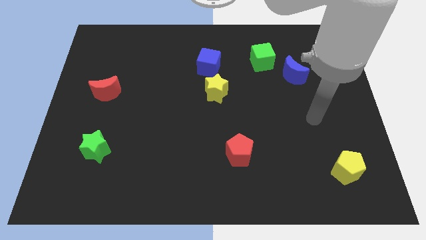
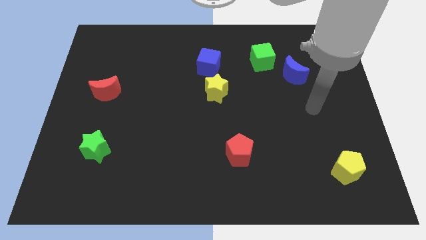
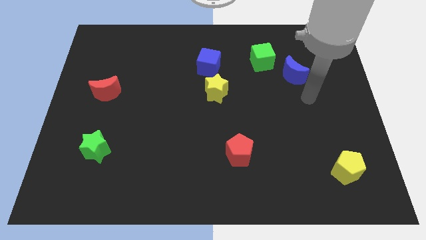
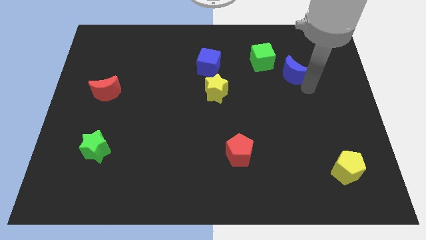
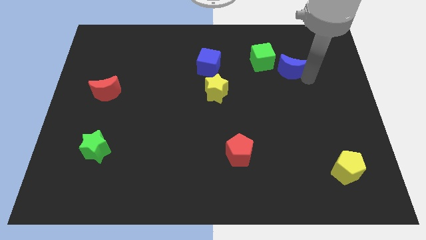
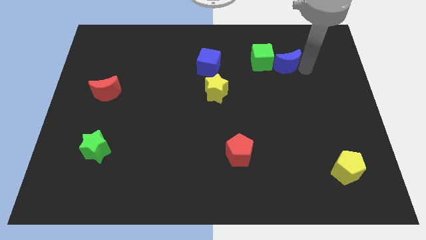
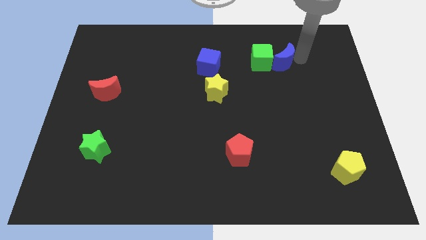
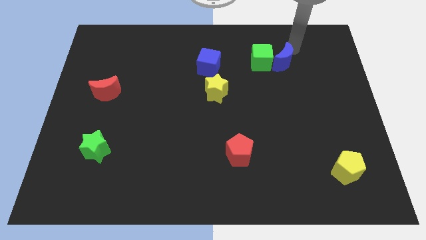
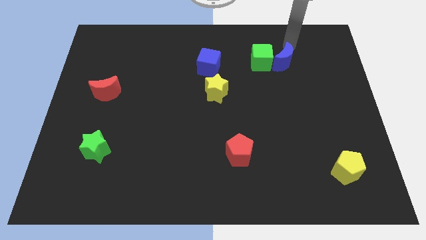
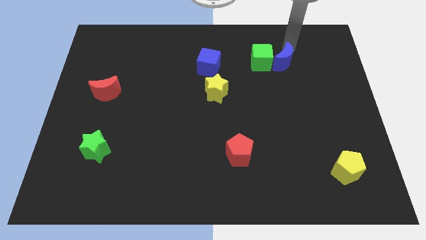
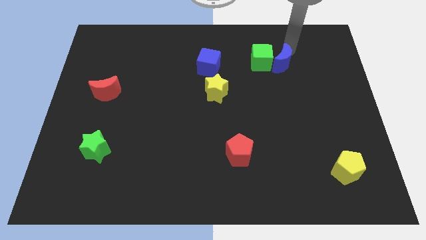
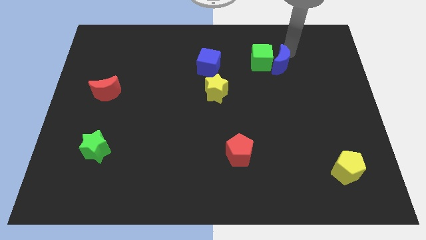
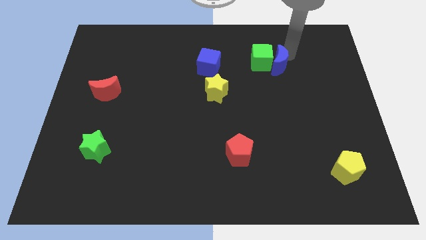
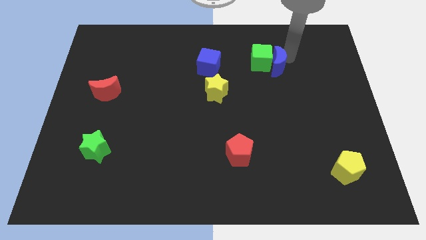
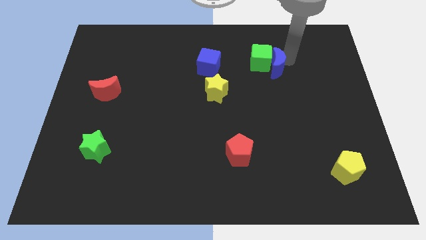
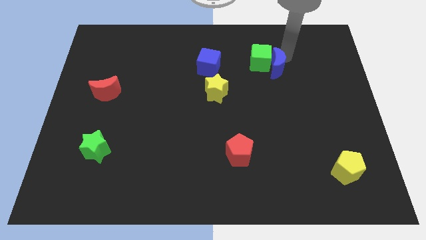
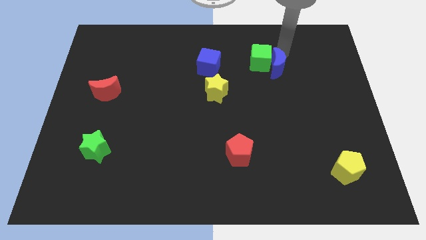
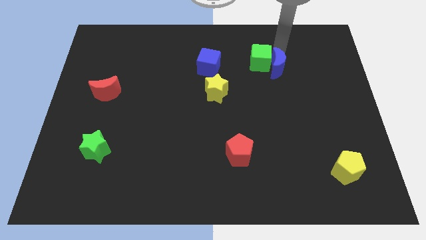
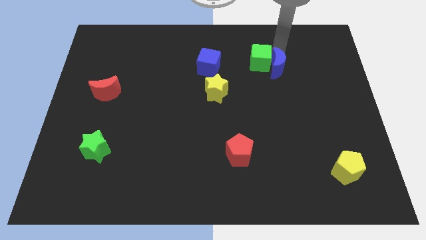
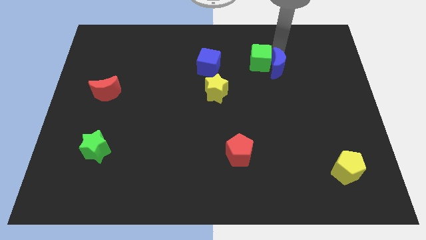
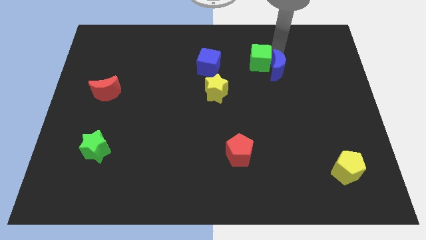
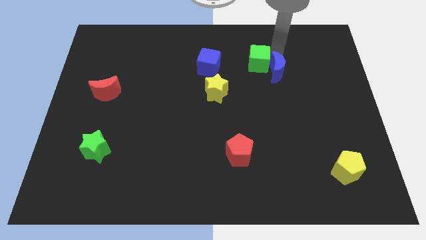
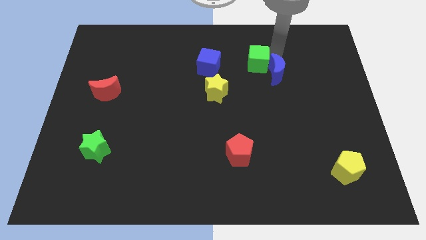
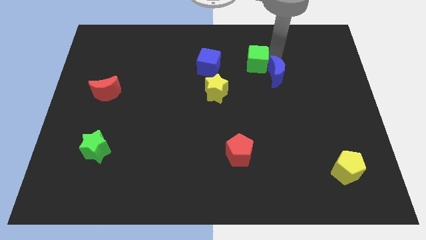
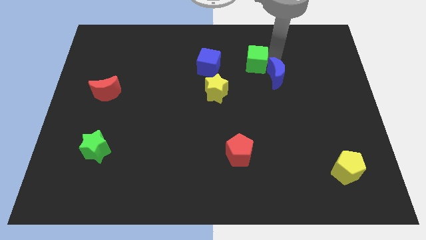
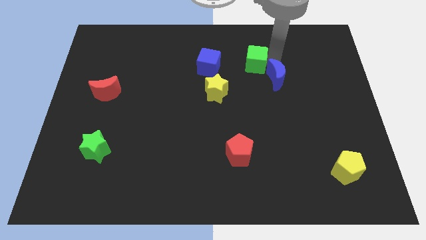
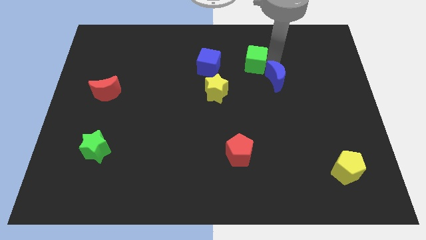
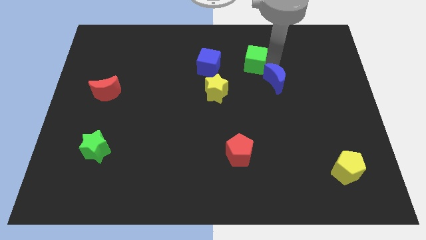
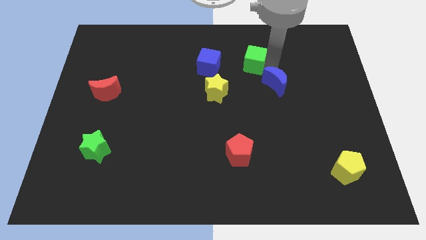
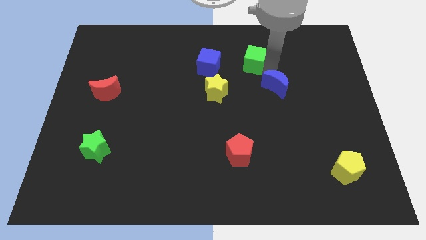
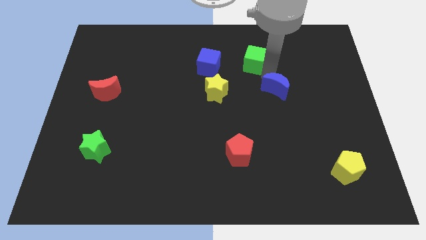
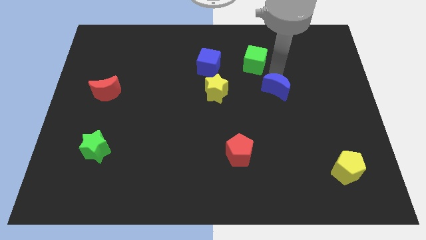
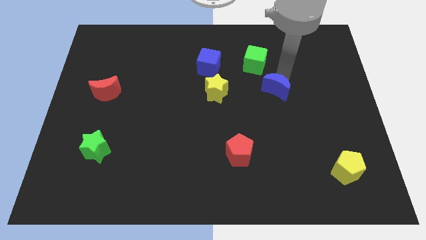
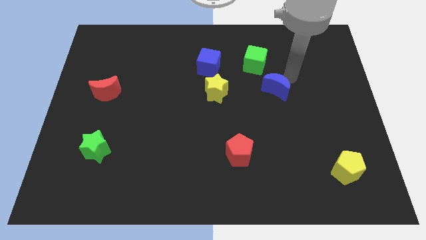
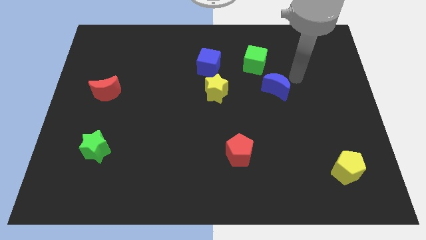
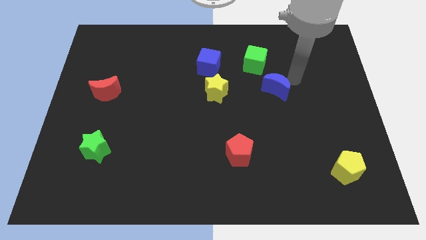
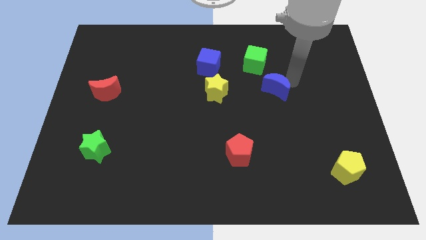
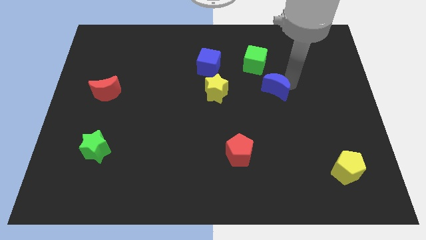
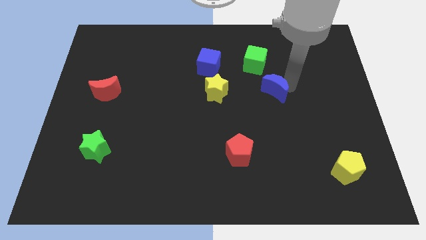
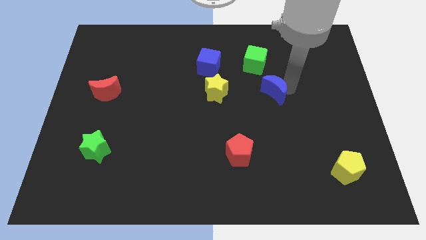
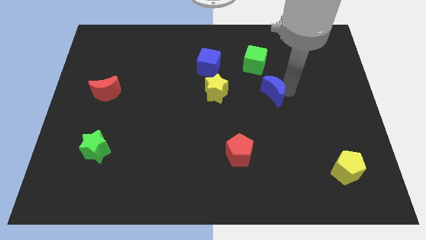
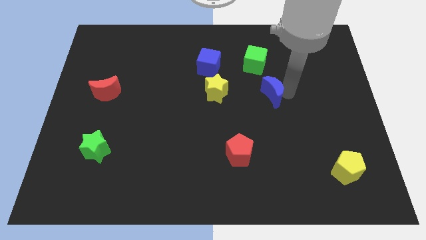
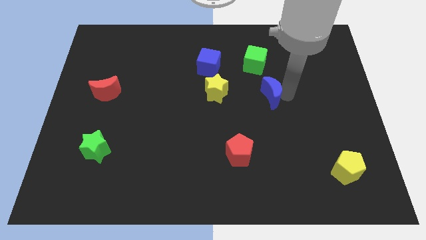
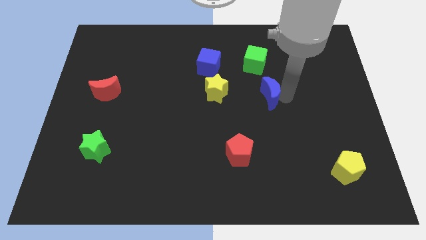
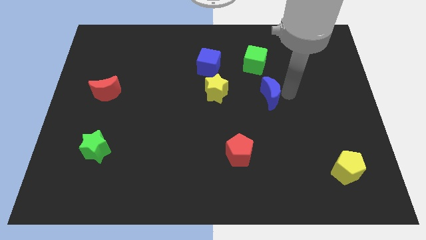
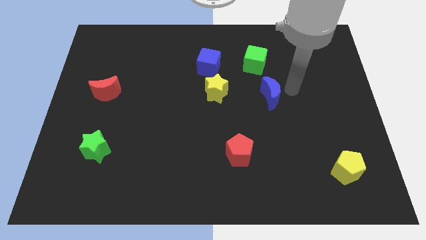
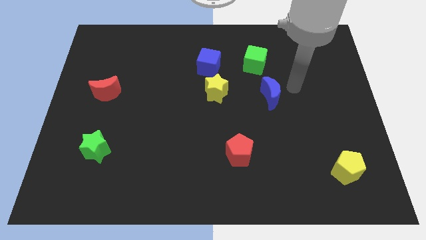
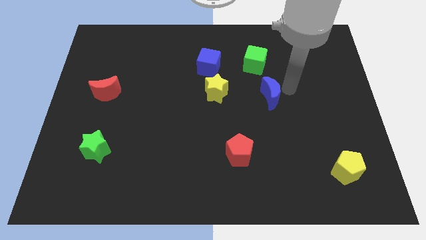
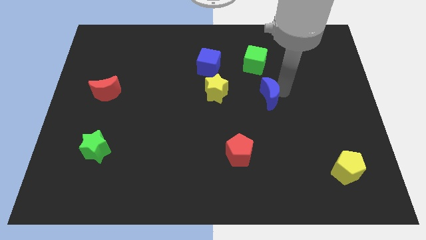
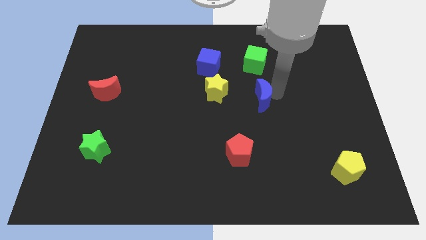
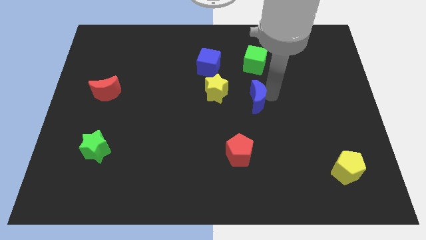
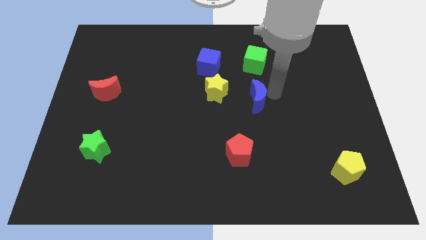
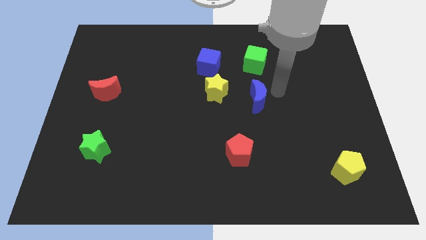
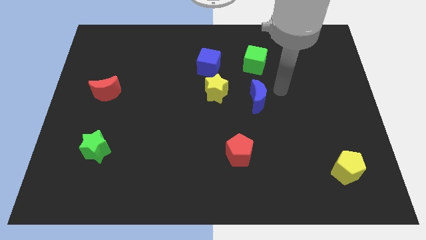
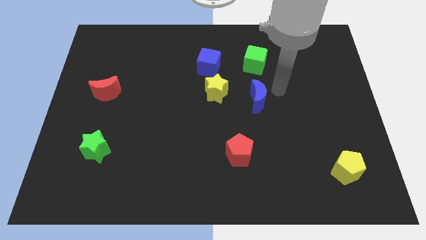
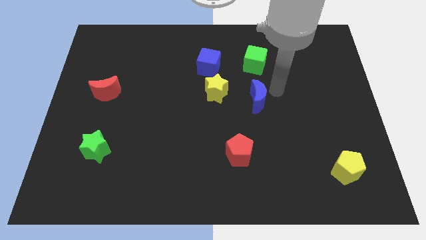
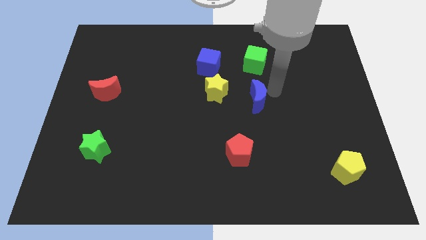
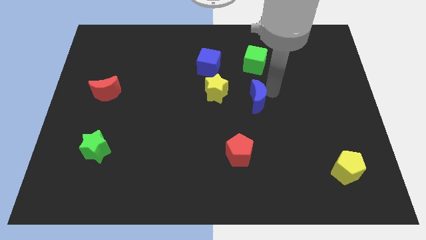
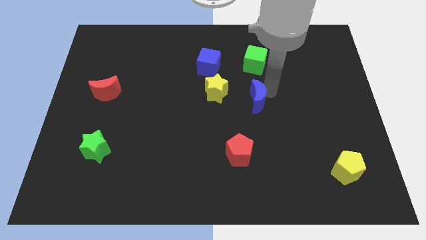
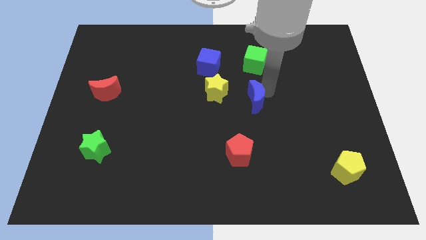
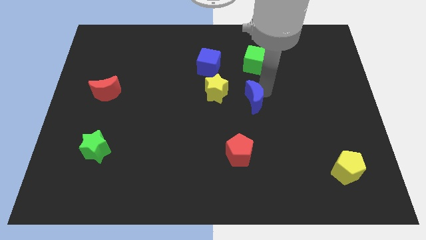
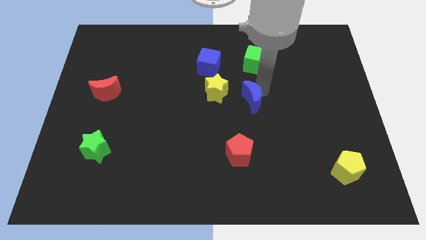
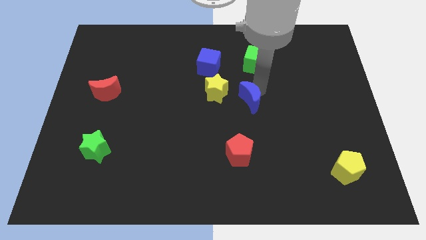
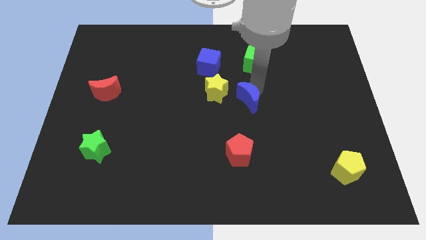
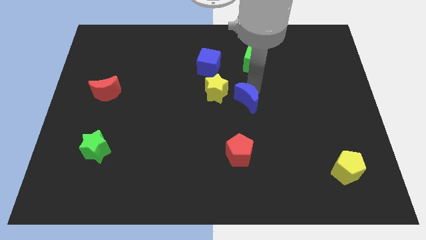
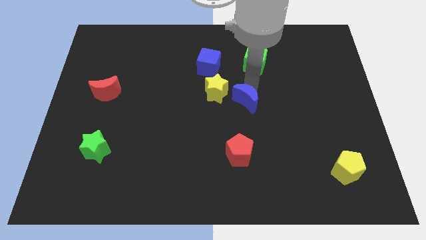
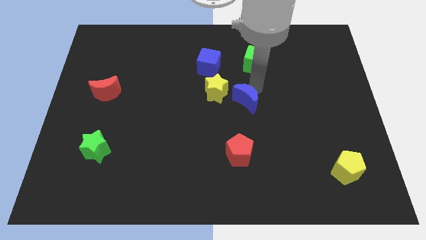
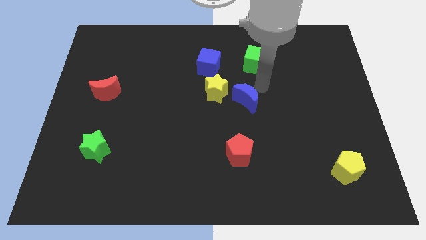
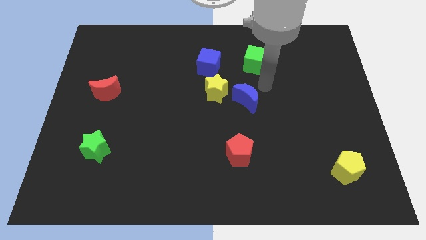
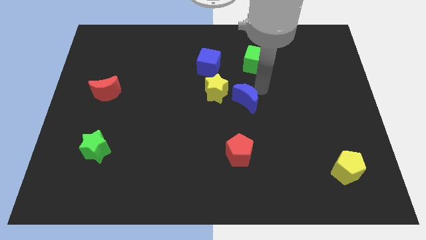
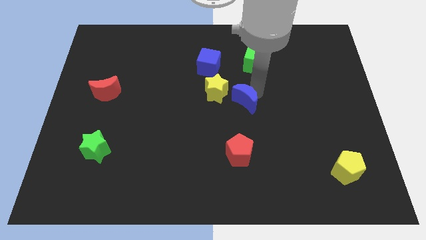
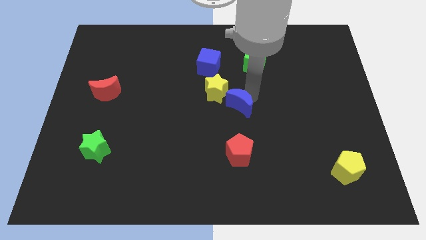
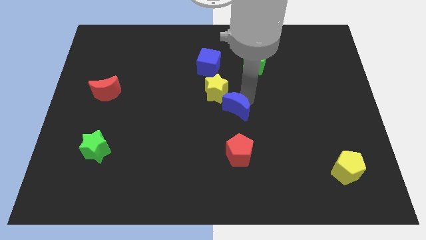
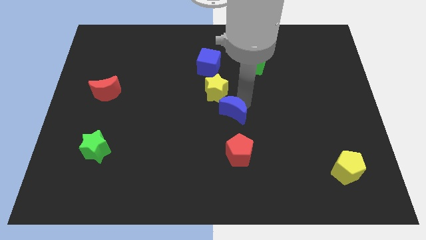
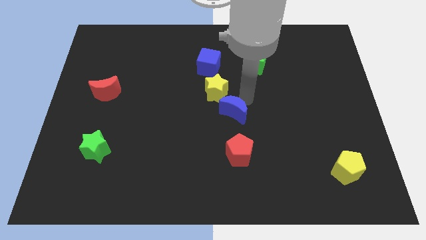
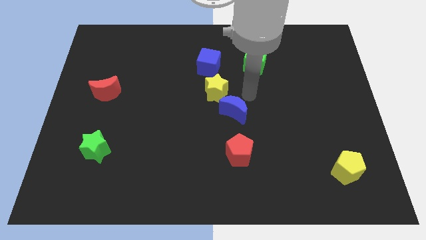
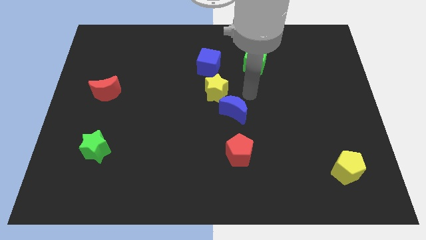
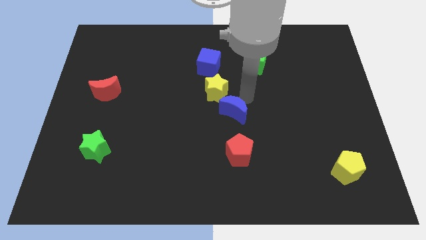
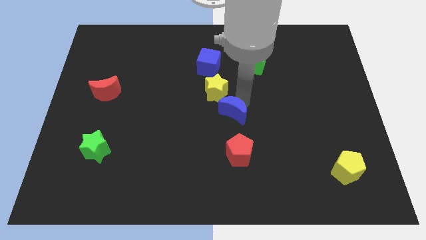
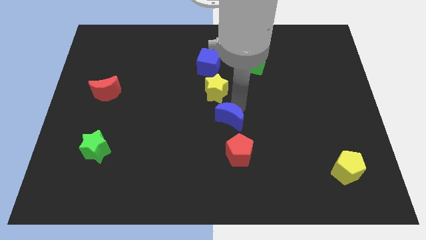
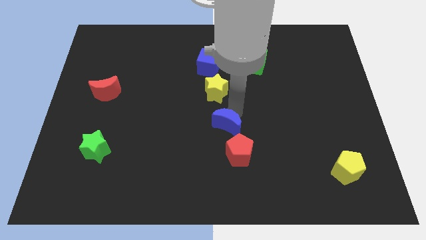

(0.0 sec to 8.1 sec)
push the blue moon diagonally up and to the left of the red pentagon
